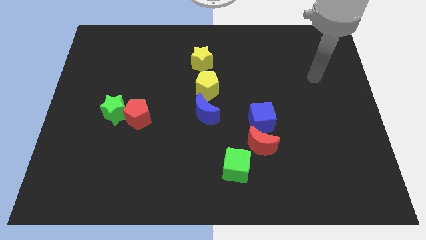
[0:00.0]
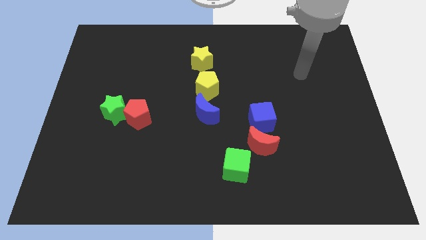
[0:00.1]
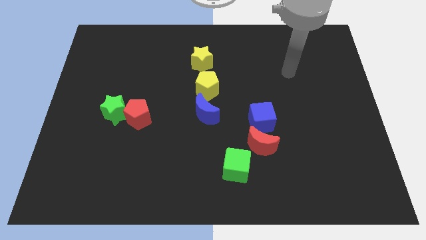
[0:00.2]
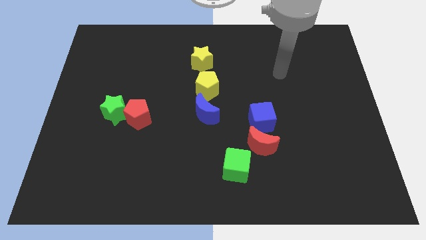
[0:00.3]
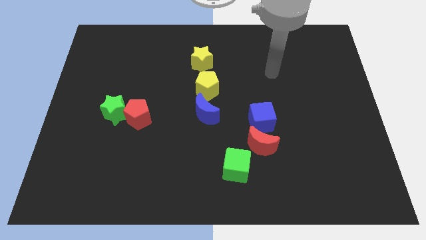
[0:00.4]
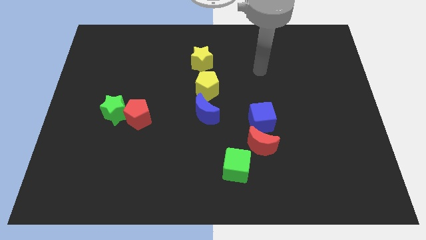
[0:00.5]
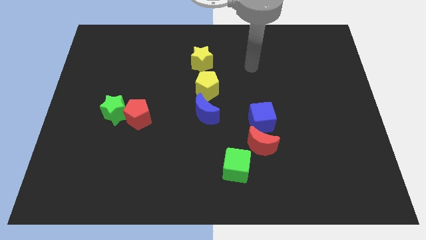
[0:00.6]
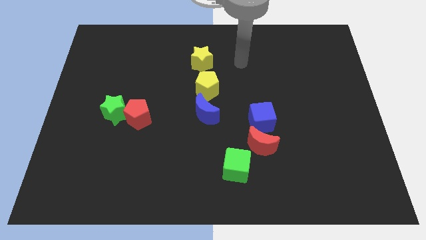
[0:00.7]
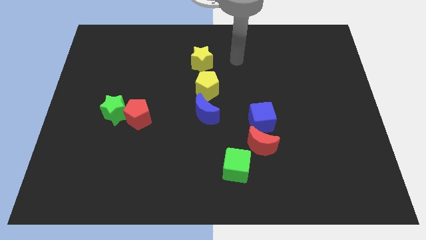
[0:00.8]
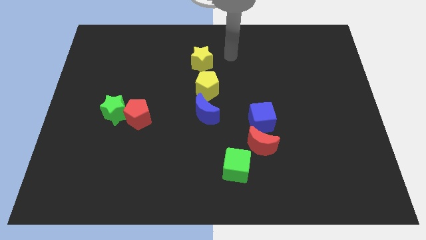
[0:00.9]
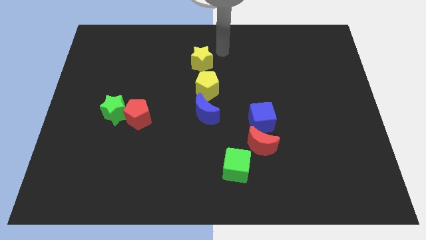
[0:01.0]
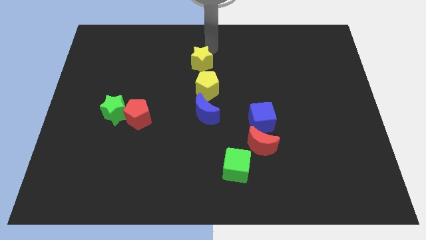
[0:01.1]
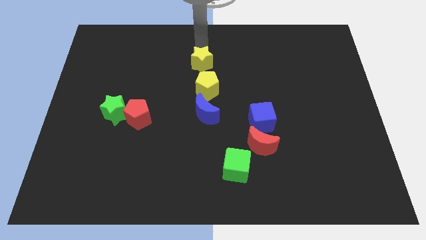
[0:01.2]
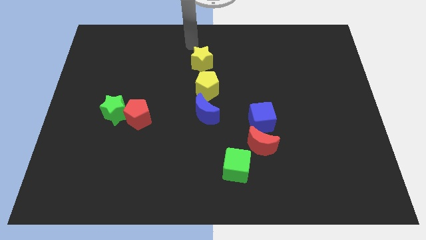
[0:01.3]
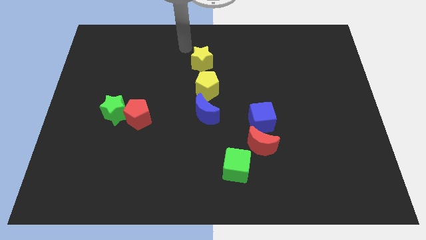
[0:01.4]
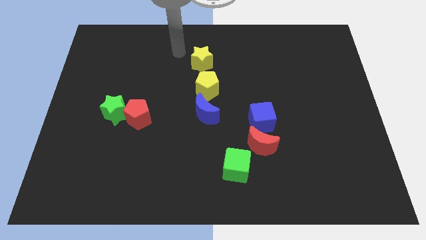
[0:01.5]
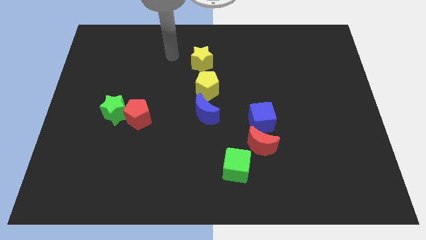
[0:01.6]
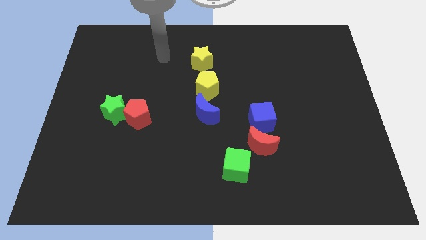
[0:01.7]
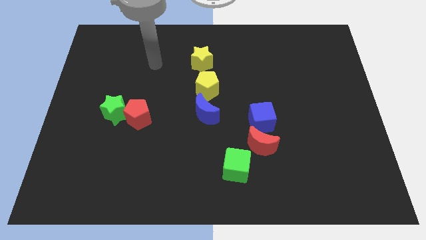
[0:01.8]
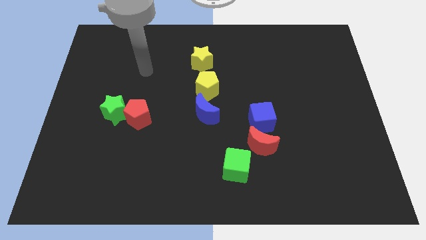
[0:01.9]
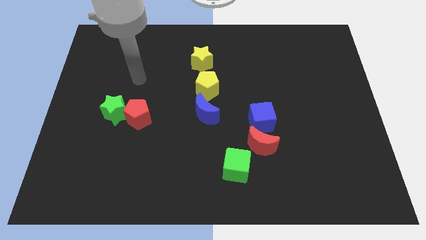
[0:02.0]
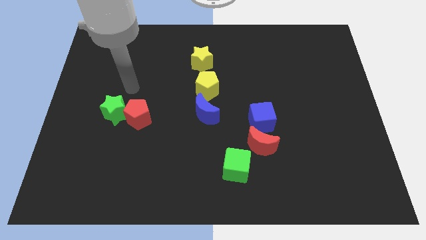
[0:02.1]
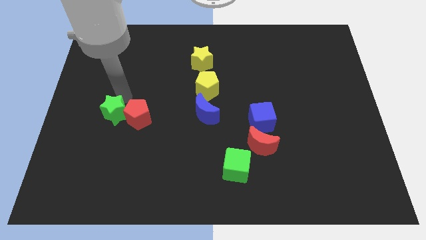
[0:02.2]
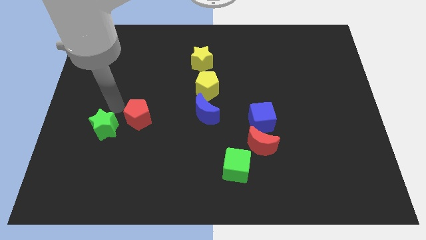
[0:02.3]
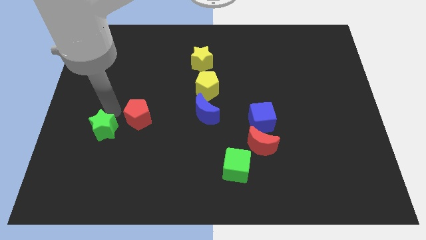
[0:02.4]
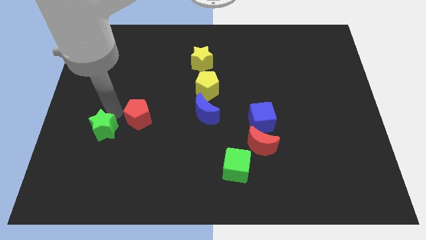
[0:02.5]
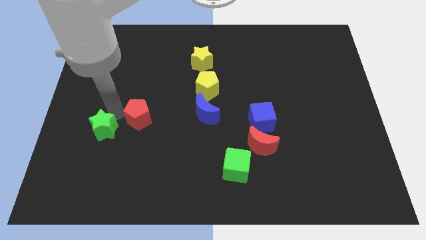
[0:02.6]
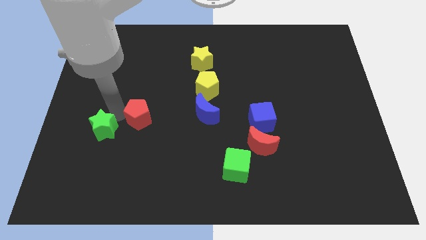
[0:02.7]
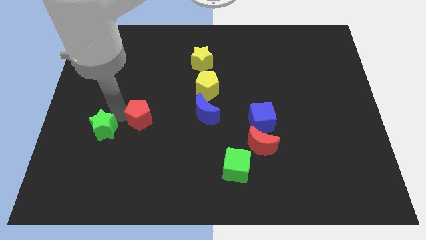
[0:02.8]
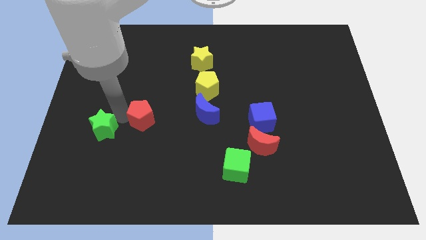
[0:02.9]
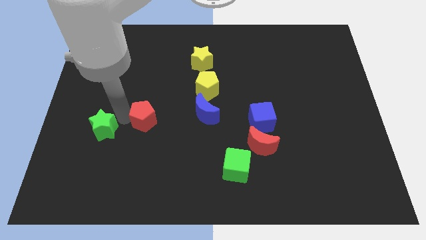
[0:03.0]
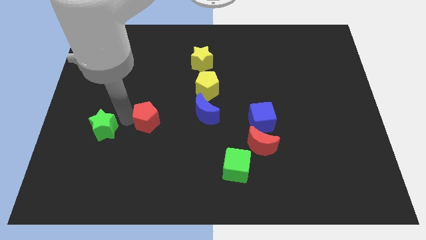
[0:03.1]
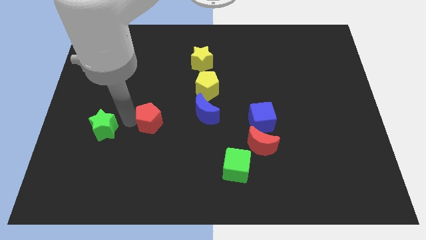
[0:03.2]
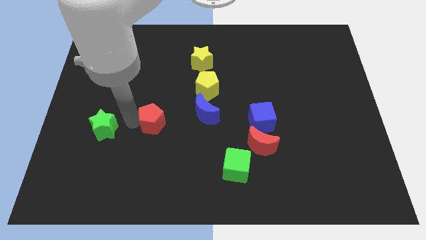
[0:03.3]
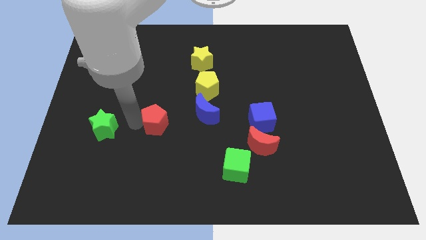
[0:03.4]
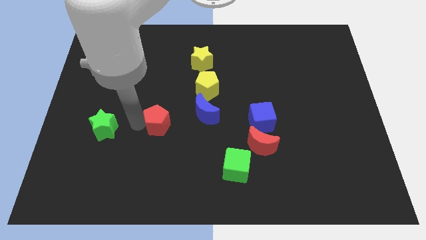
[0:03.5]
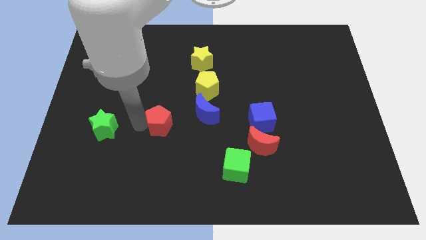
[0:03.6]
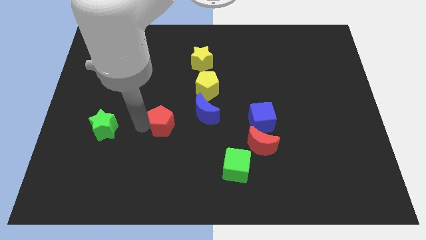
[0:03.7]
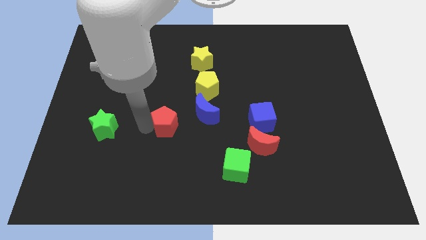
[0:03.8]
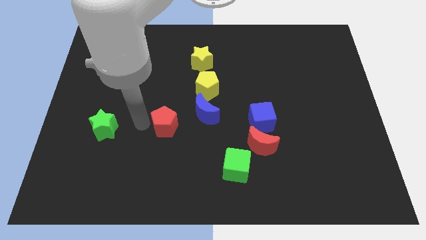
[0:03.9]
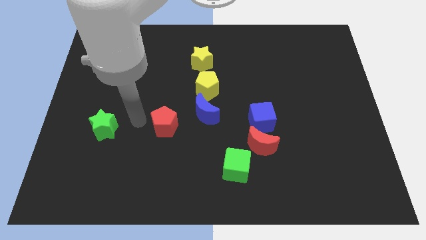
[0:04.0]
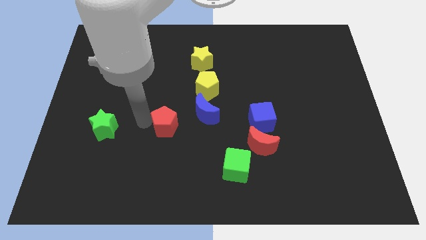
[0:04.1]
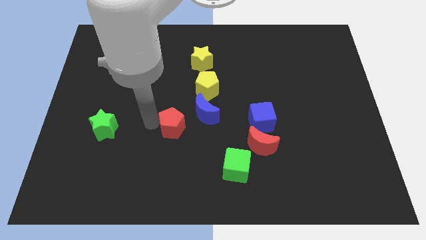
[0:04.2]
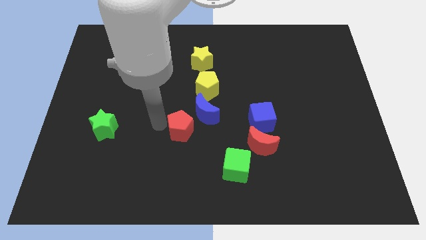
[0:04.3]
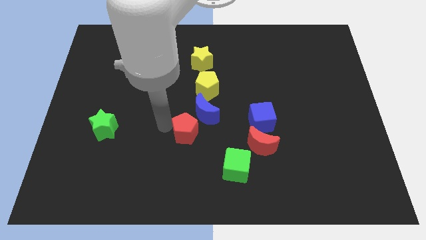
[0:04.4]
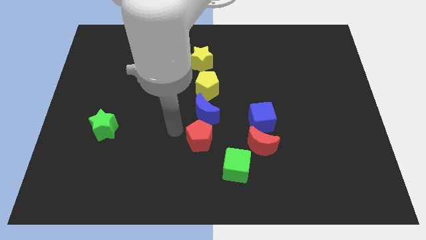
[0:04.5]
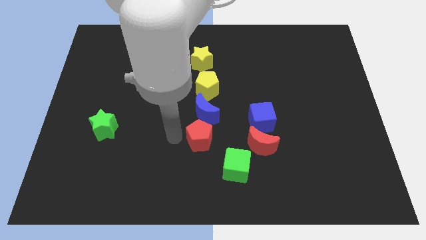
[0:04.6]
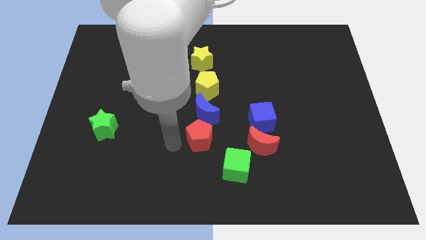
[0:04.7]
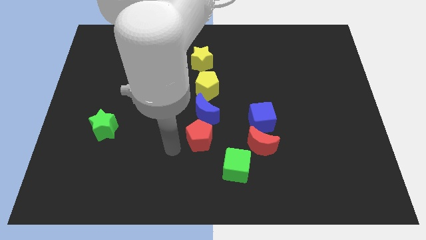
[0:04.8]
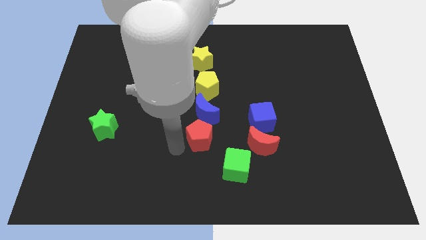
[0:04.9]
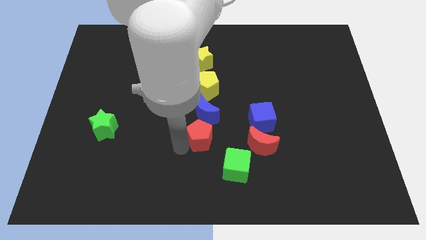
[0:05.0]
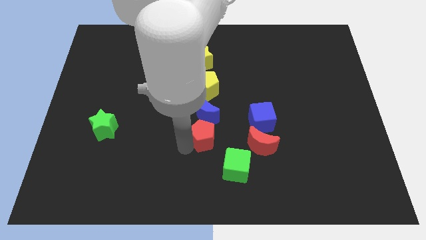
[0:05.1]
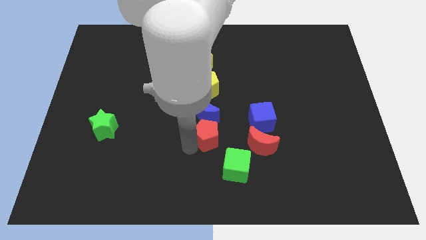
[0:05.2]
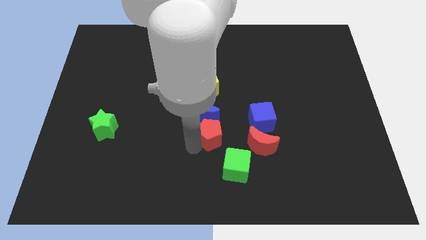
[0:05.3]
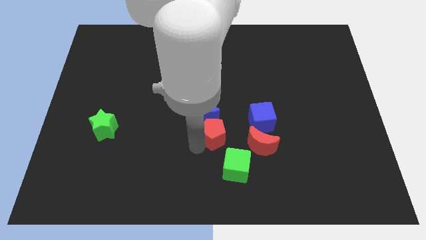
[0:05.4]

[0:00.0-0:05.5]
slide the red pentagon to the top of the green cube

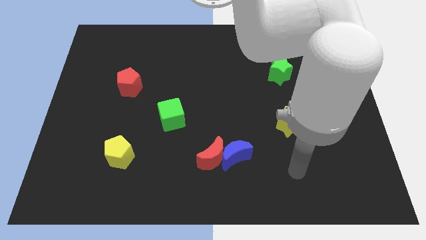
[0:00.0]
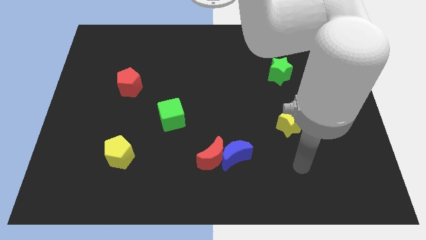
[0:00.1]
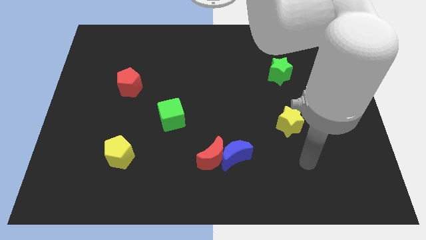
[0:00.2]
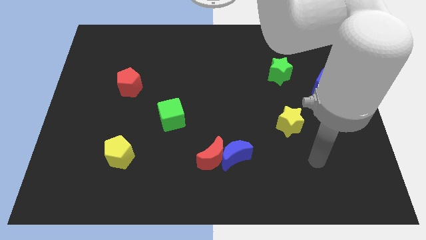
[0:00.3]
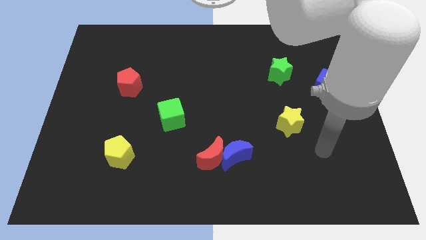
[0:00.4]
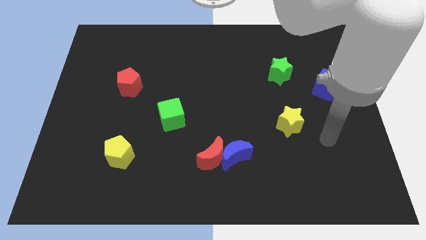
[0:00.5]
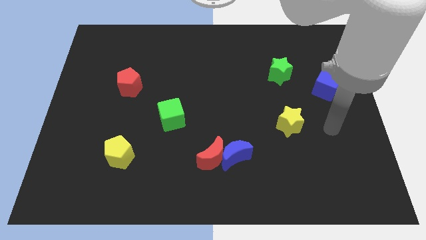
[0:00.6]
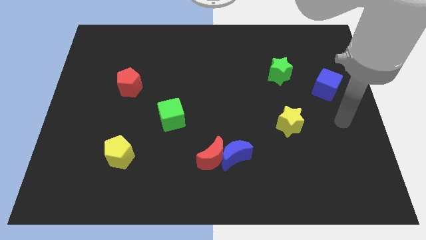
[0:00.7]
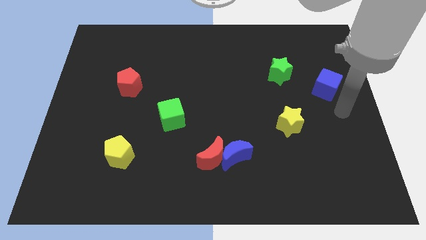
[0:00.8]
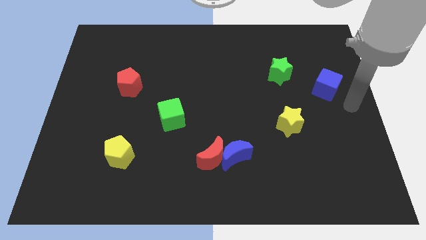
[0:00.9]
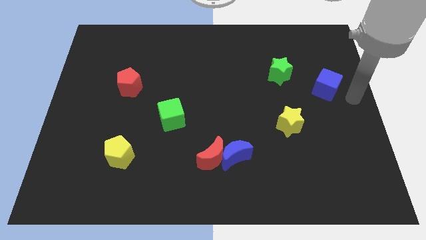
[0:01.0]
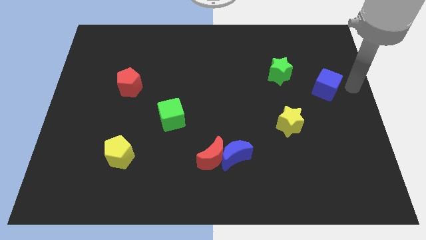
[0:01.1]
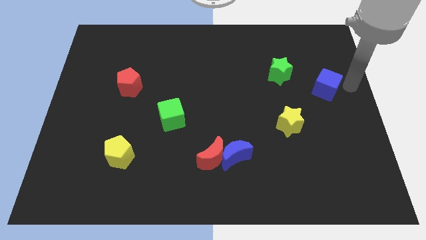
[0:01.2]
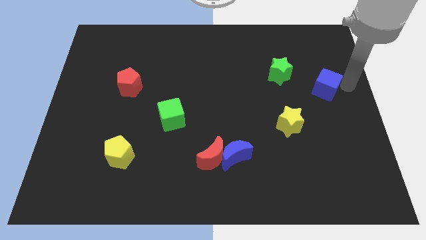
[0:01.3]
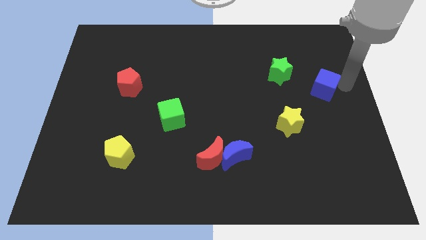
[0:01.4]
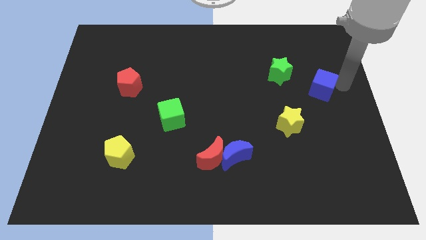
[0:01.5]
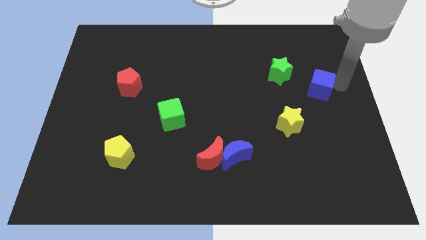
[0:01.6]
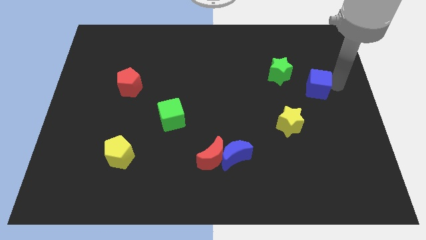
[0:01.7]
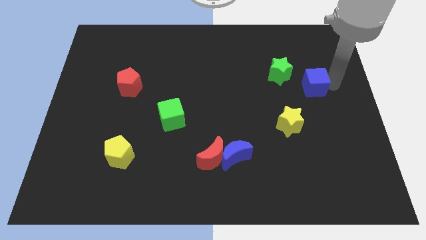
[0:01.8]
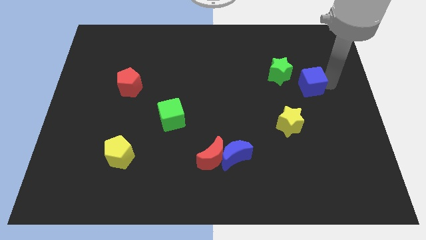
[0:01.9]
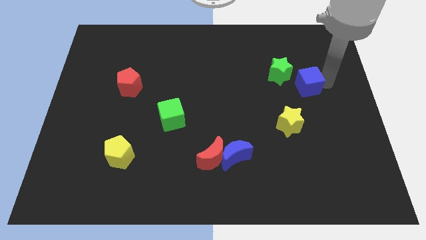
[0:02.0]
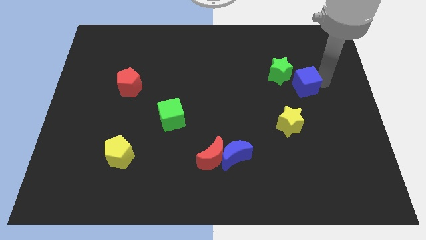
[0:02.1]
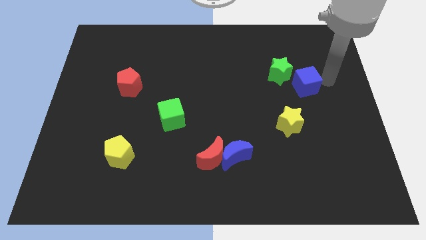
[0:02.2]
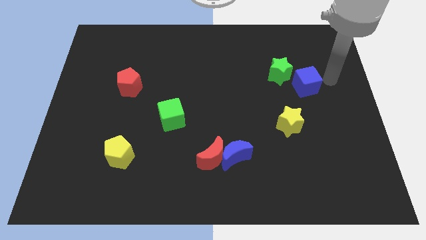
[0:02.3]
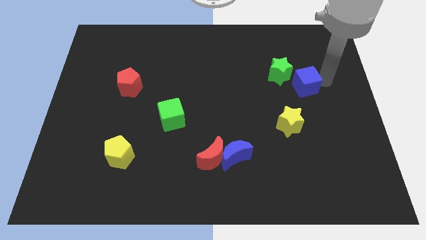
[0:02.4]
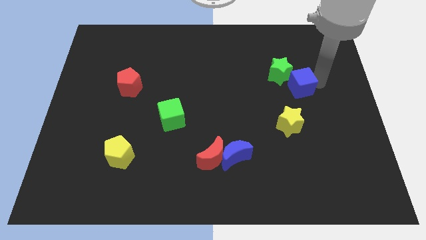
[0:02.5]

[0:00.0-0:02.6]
slide the blue cube to the top side of the yellow star
